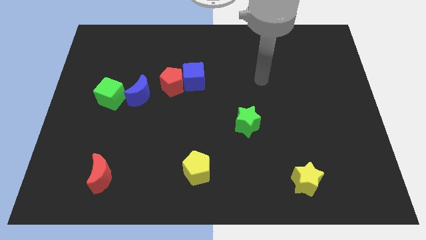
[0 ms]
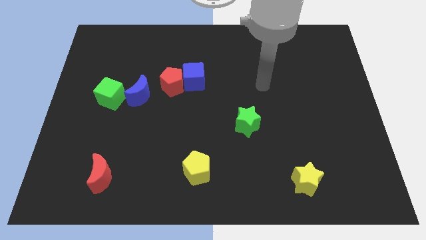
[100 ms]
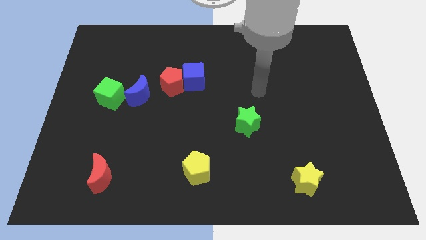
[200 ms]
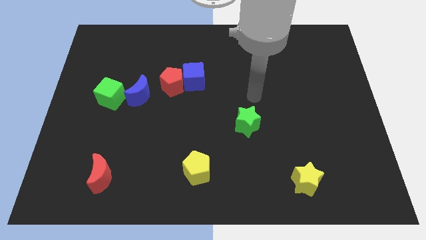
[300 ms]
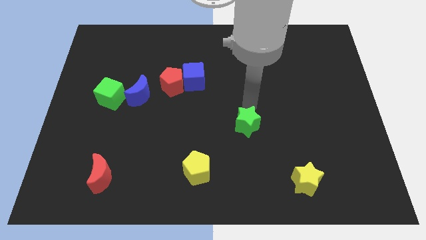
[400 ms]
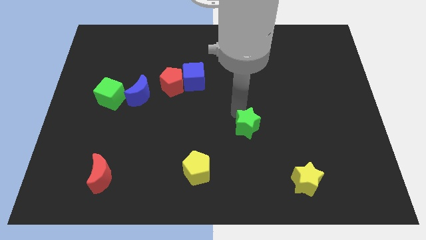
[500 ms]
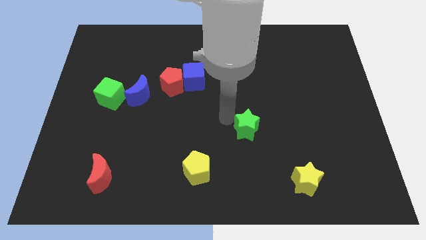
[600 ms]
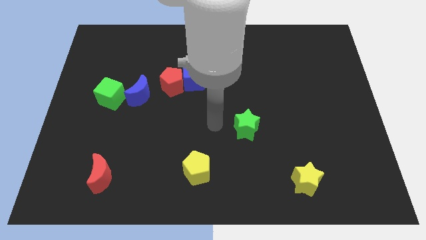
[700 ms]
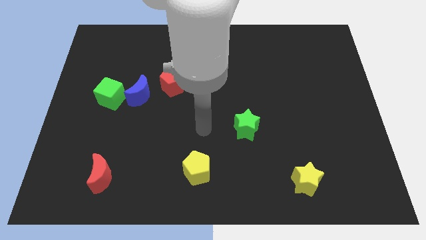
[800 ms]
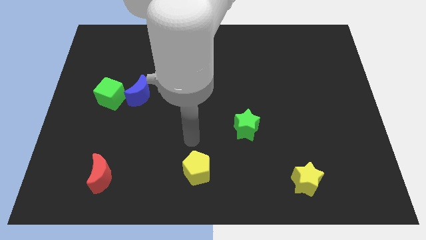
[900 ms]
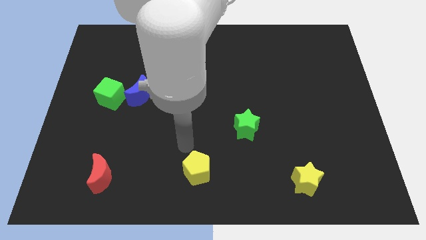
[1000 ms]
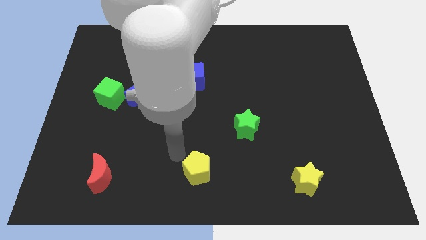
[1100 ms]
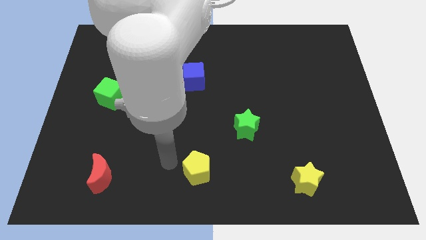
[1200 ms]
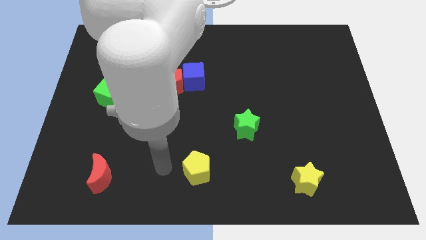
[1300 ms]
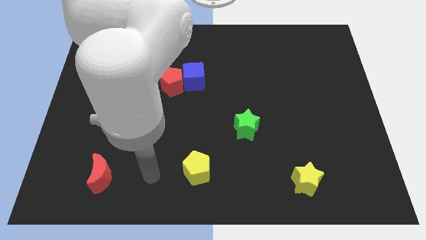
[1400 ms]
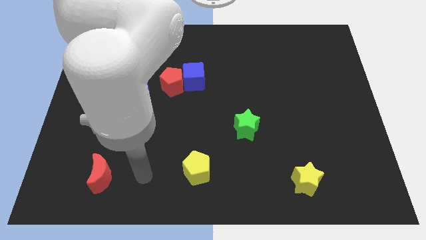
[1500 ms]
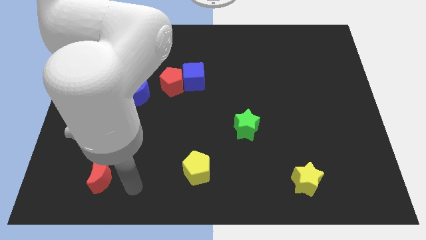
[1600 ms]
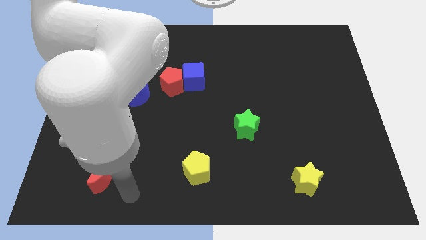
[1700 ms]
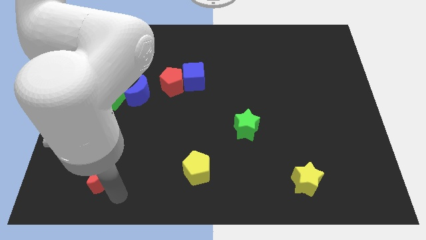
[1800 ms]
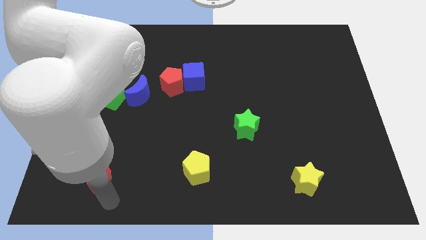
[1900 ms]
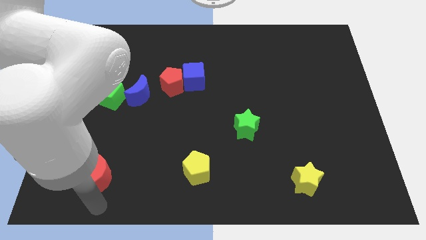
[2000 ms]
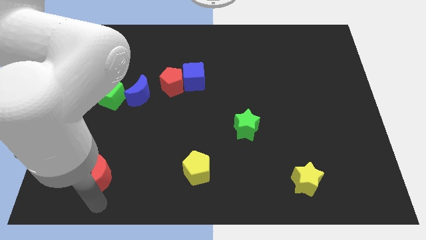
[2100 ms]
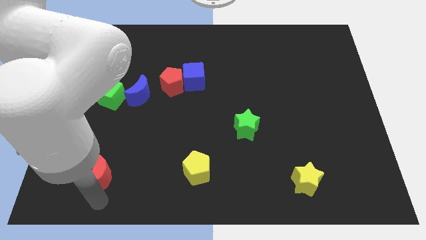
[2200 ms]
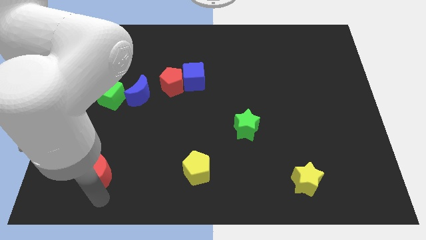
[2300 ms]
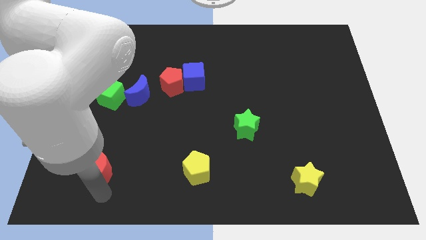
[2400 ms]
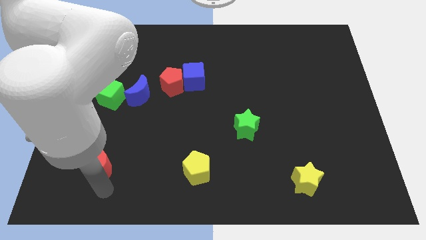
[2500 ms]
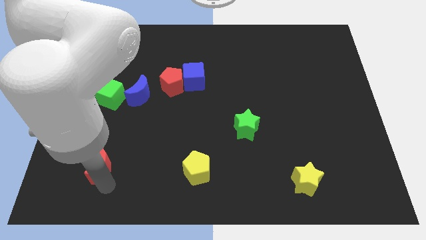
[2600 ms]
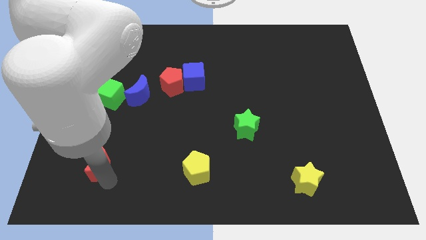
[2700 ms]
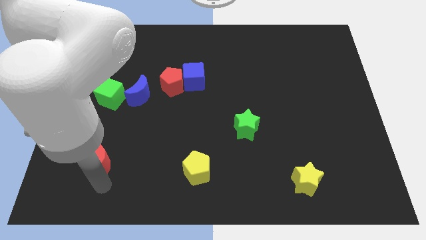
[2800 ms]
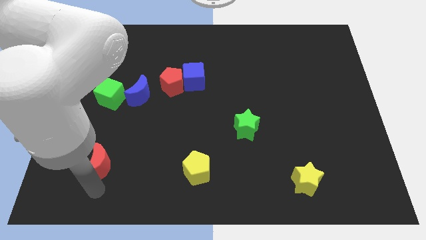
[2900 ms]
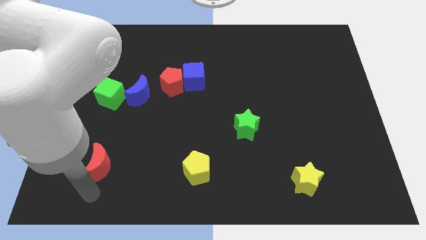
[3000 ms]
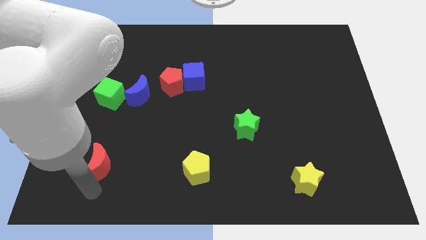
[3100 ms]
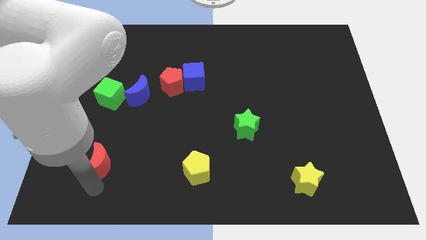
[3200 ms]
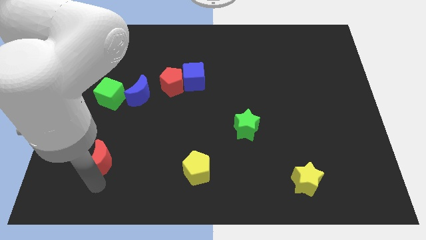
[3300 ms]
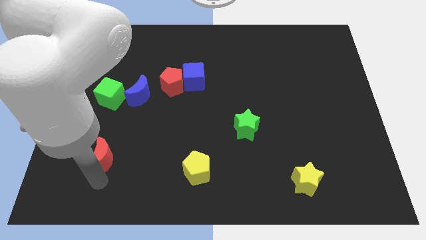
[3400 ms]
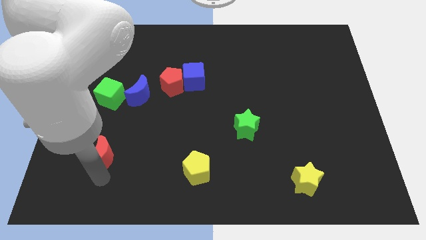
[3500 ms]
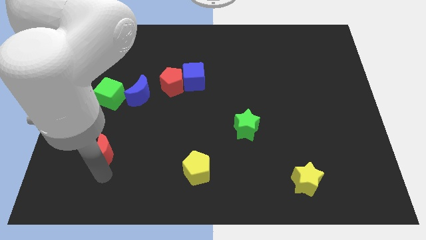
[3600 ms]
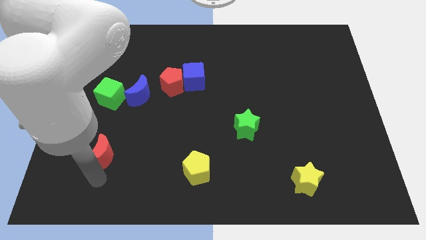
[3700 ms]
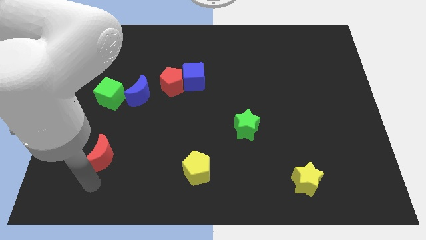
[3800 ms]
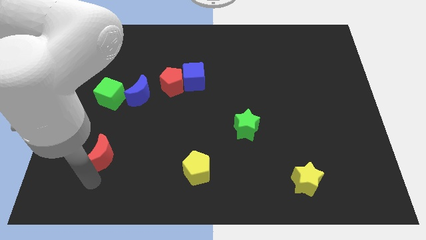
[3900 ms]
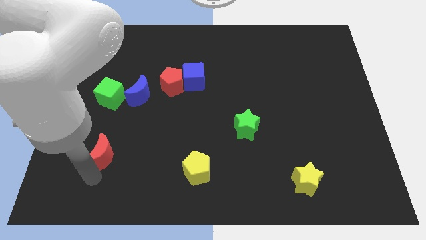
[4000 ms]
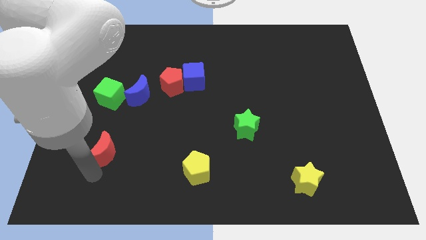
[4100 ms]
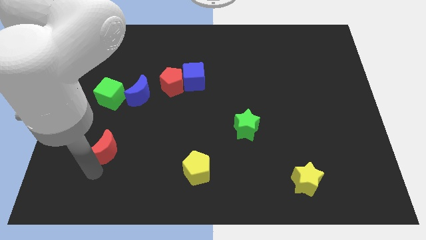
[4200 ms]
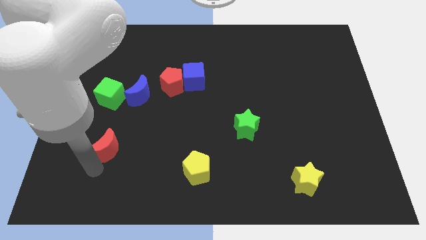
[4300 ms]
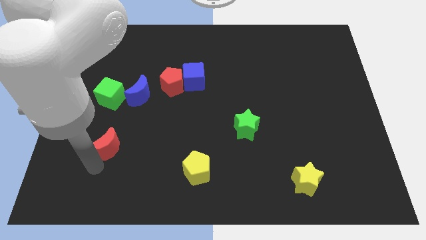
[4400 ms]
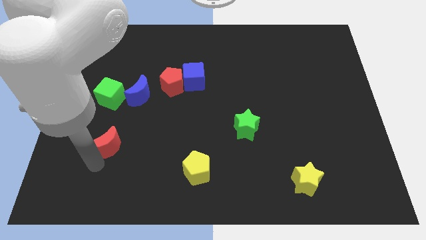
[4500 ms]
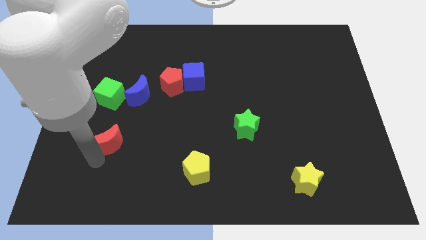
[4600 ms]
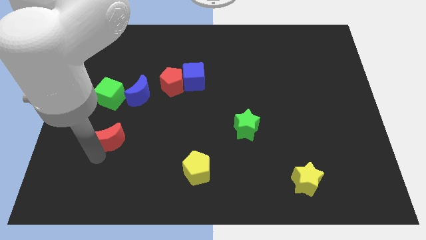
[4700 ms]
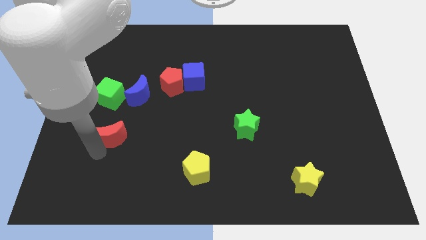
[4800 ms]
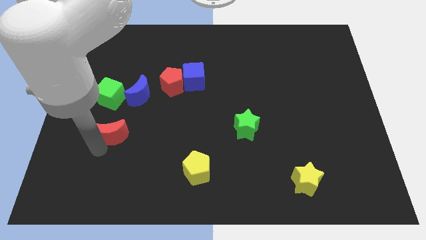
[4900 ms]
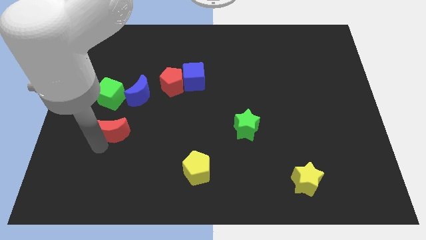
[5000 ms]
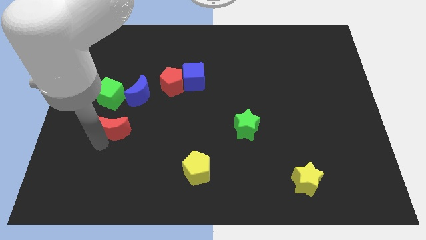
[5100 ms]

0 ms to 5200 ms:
slide the red moon to the bottom left of the blue moon

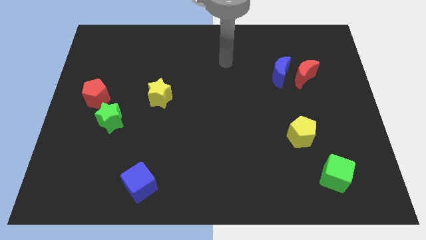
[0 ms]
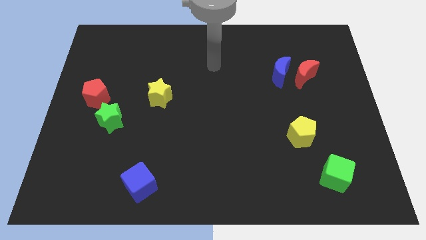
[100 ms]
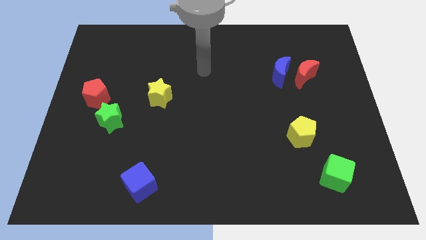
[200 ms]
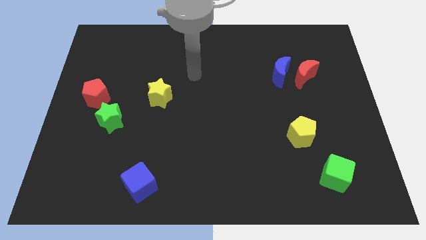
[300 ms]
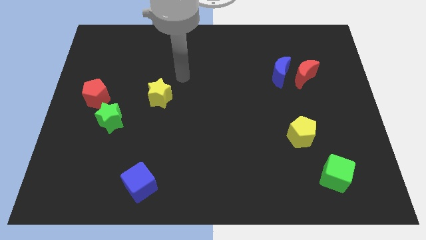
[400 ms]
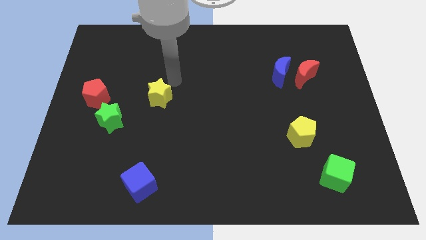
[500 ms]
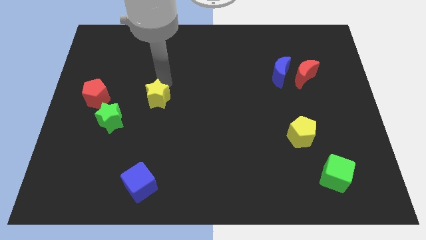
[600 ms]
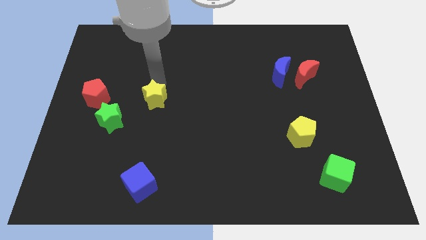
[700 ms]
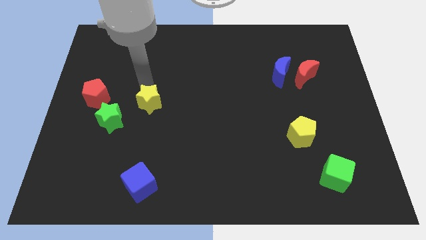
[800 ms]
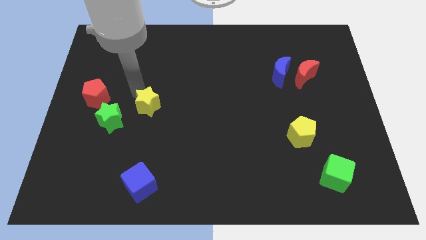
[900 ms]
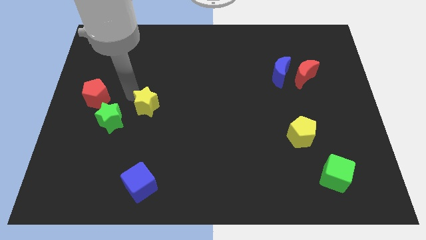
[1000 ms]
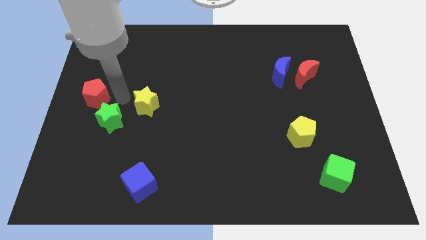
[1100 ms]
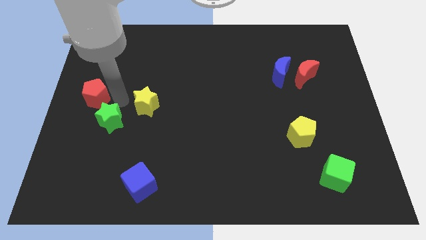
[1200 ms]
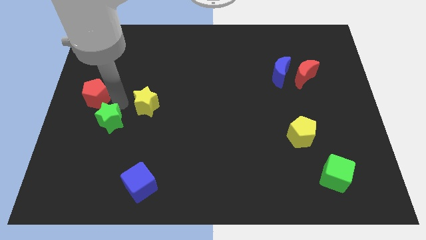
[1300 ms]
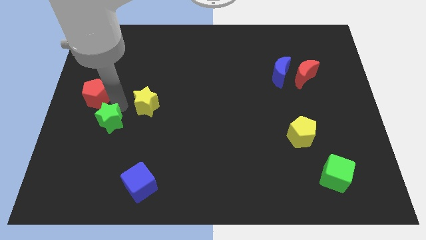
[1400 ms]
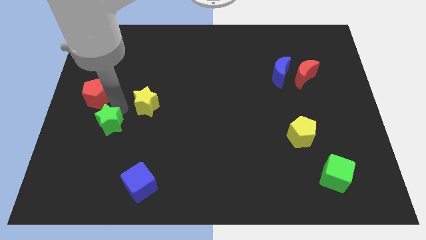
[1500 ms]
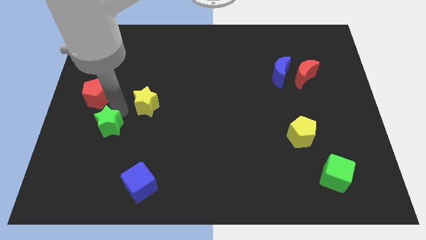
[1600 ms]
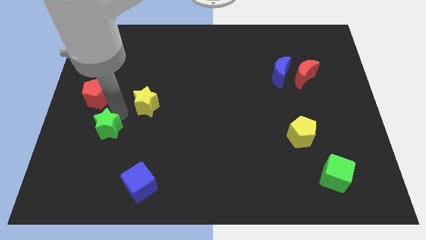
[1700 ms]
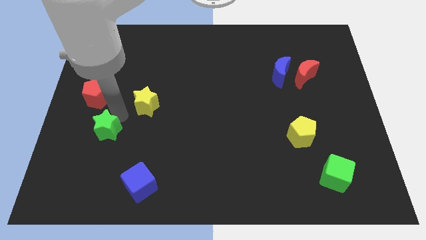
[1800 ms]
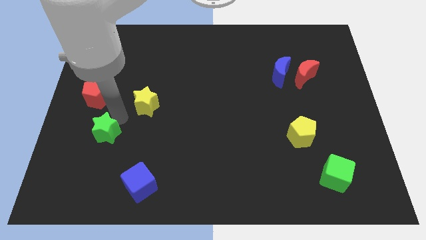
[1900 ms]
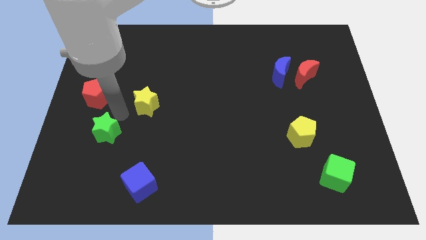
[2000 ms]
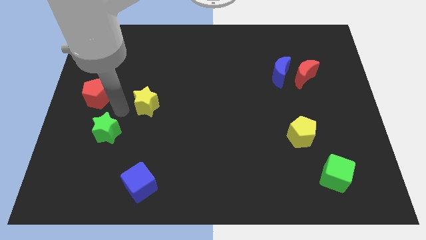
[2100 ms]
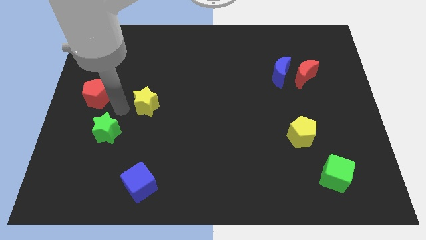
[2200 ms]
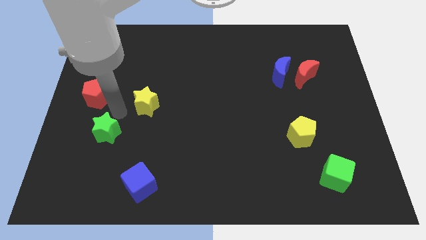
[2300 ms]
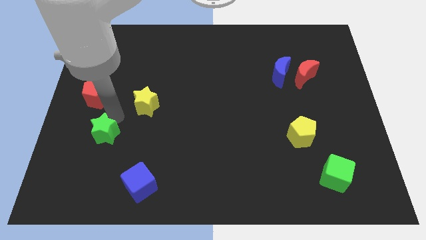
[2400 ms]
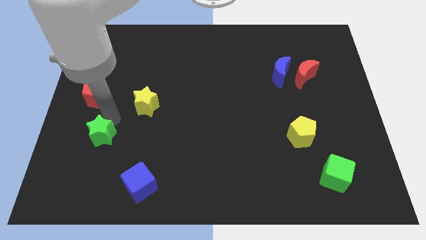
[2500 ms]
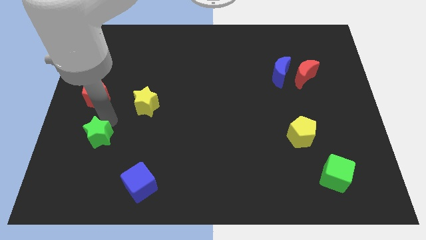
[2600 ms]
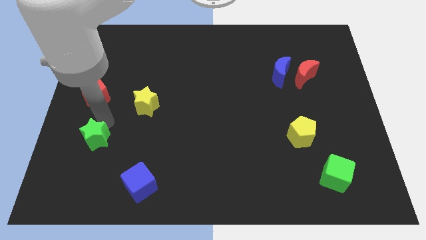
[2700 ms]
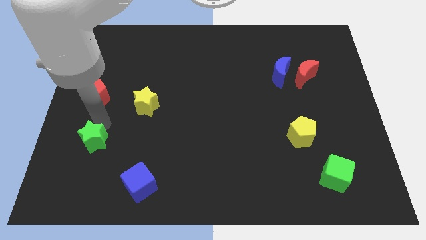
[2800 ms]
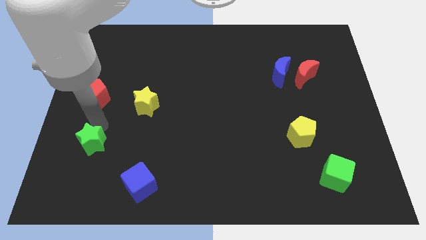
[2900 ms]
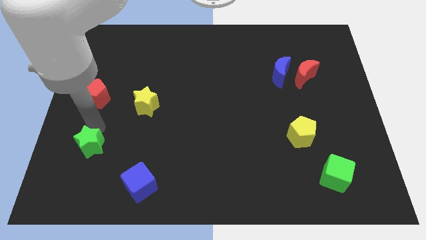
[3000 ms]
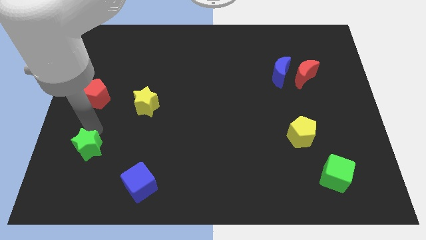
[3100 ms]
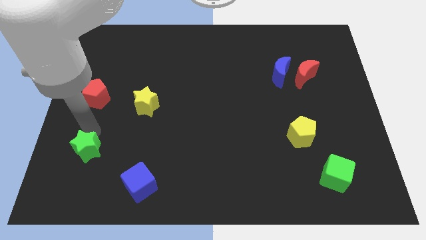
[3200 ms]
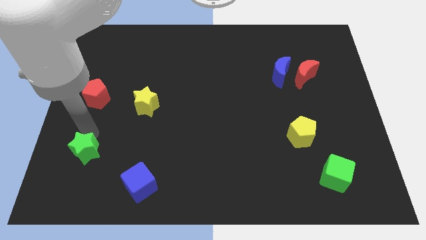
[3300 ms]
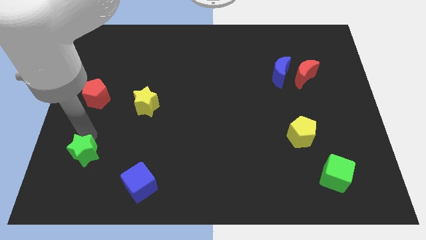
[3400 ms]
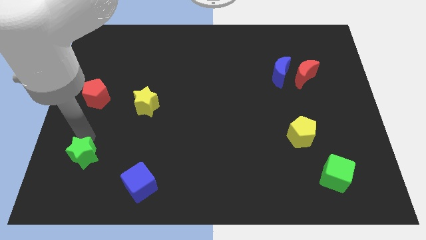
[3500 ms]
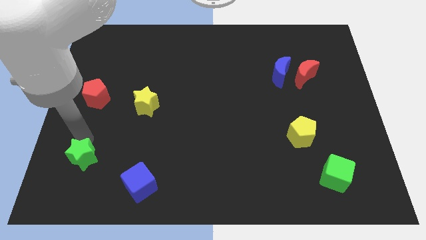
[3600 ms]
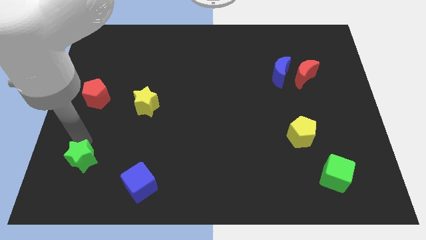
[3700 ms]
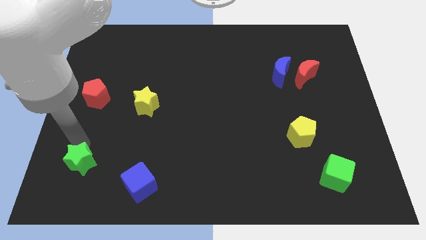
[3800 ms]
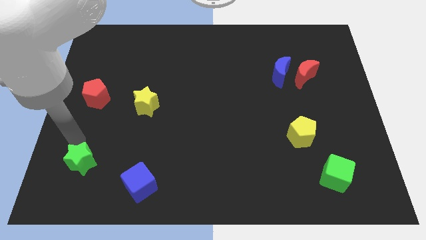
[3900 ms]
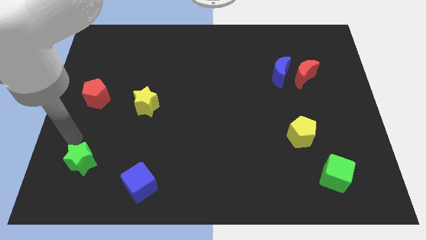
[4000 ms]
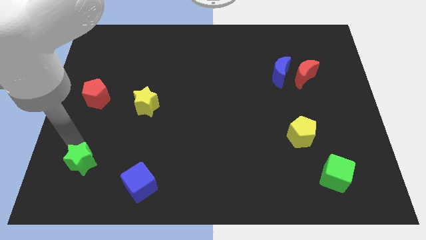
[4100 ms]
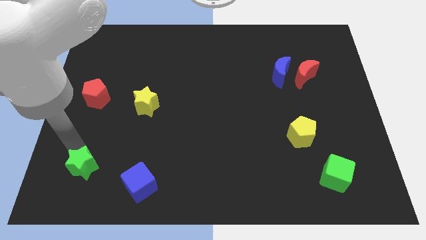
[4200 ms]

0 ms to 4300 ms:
move the green star just left of the blue cube
